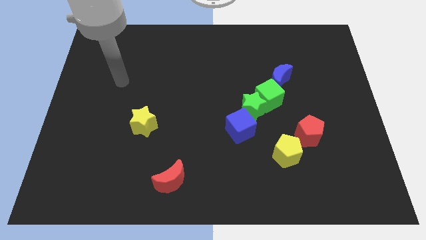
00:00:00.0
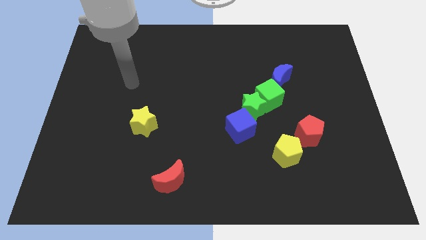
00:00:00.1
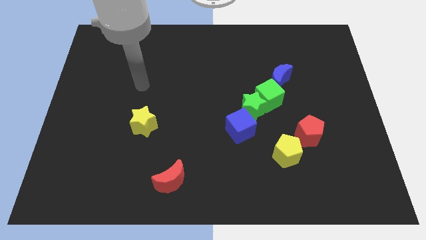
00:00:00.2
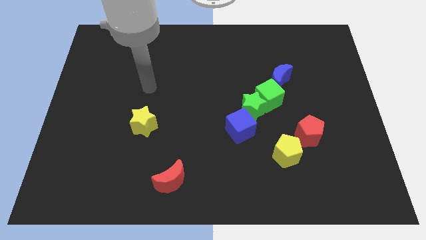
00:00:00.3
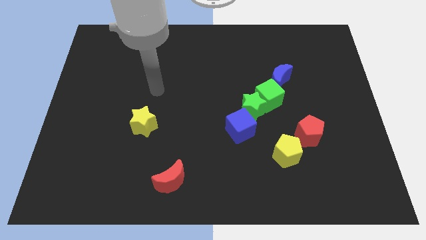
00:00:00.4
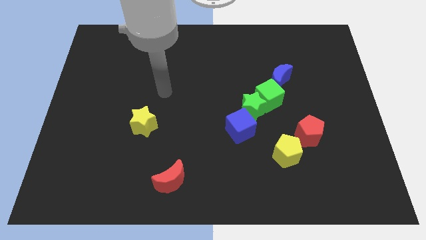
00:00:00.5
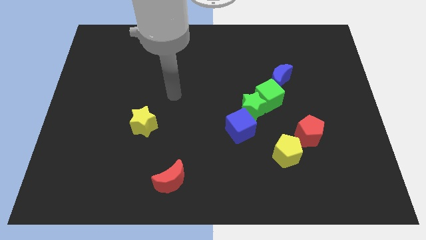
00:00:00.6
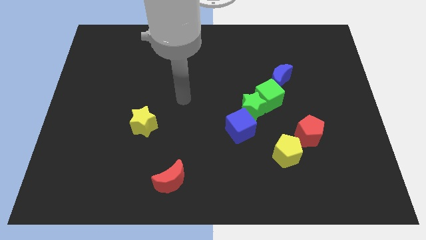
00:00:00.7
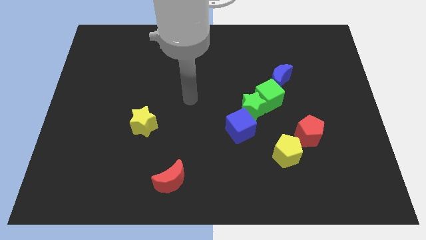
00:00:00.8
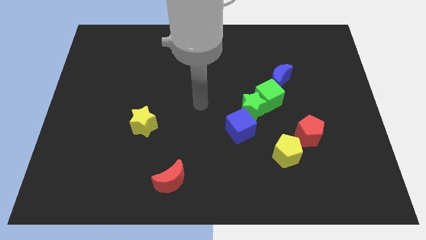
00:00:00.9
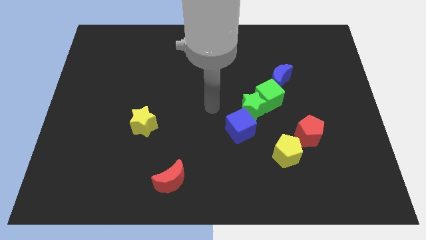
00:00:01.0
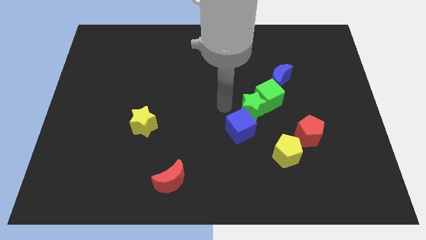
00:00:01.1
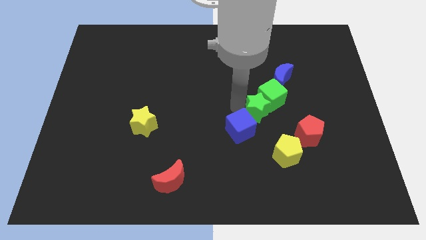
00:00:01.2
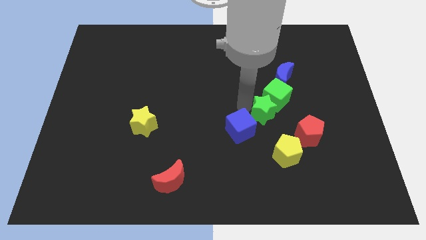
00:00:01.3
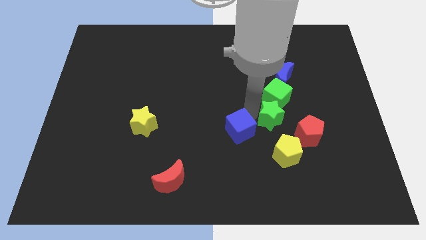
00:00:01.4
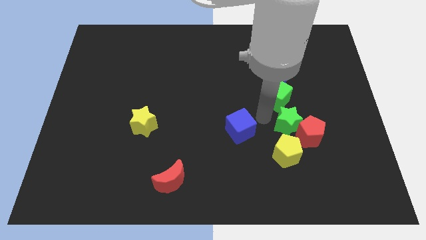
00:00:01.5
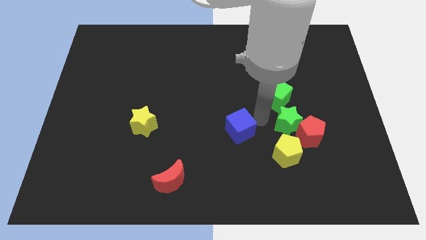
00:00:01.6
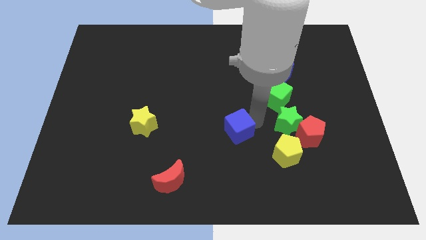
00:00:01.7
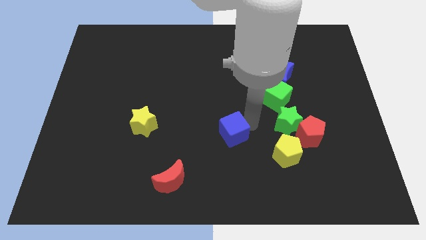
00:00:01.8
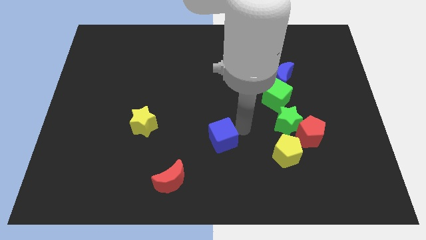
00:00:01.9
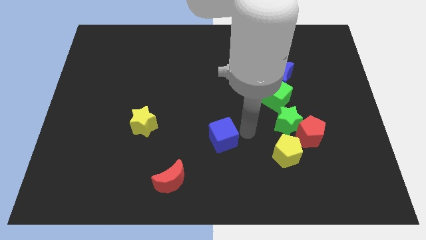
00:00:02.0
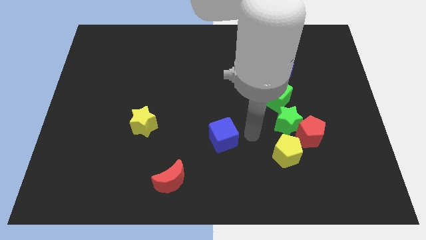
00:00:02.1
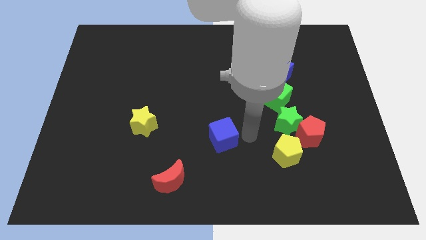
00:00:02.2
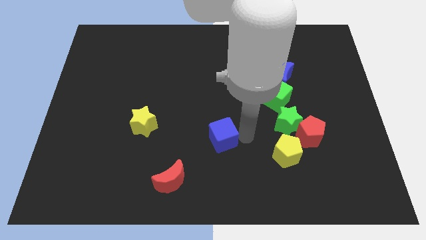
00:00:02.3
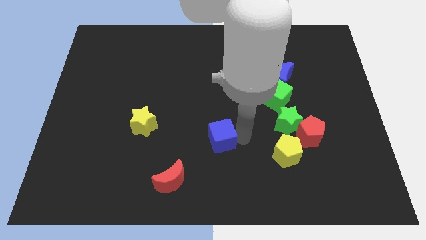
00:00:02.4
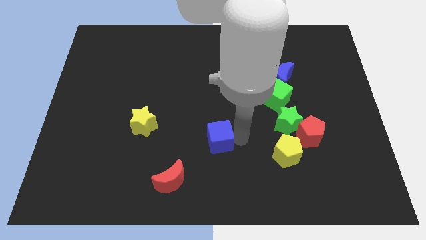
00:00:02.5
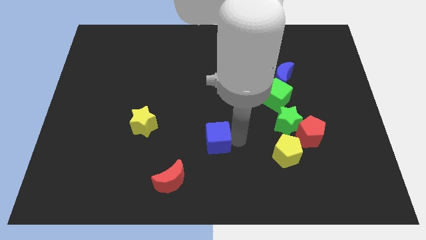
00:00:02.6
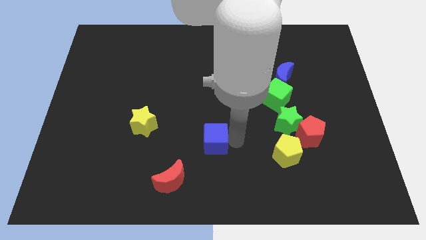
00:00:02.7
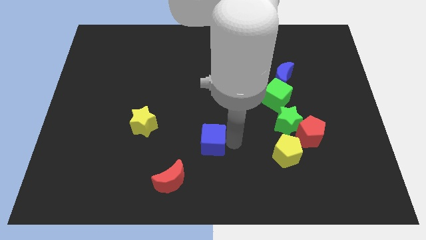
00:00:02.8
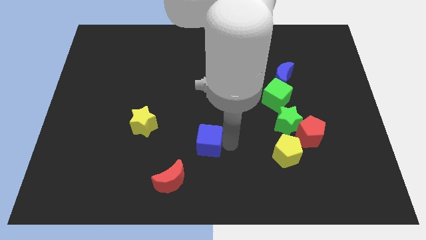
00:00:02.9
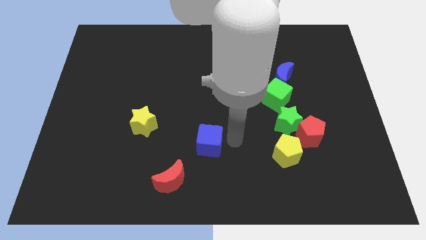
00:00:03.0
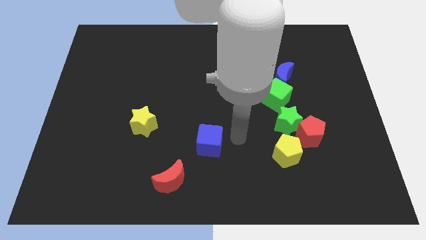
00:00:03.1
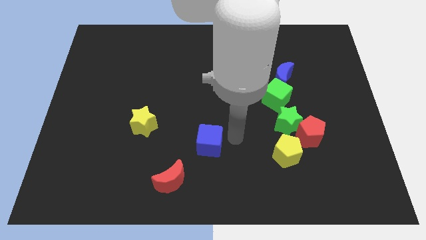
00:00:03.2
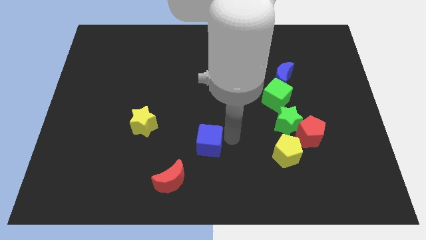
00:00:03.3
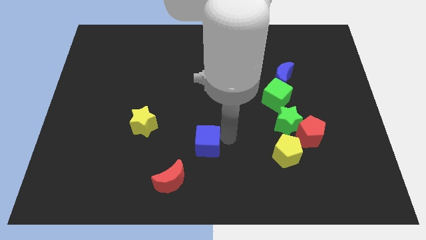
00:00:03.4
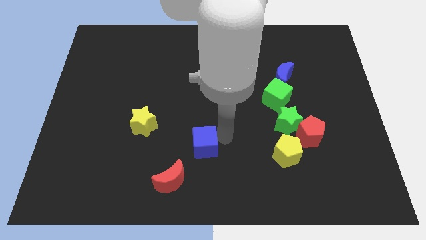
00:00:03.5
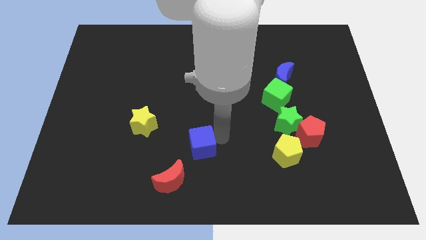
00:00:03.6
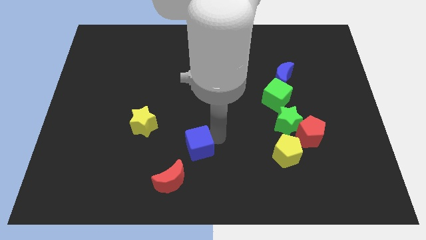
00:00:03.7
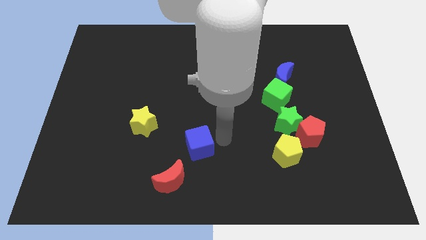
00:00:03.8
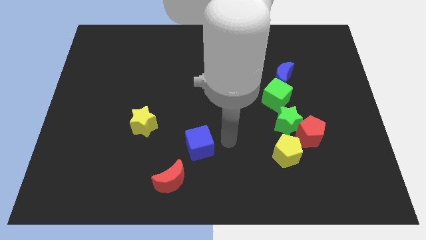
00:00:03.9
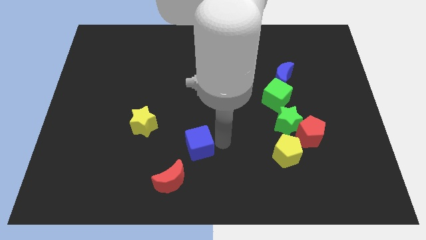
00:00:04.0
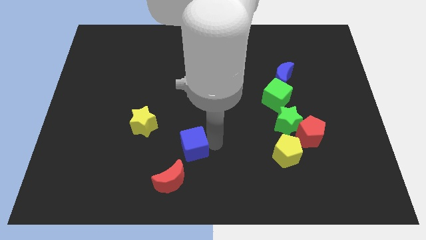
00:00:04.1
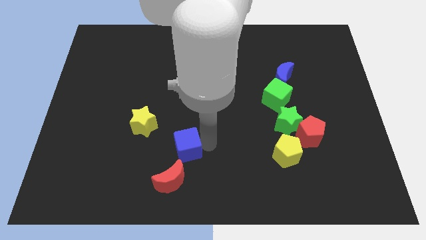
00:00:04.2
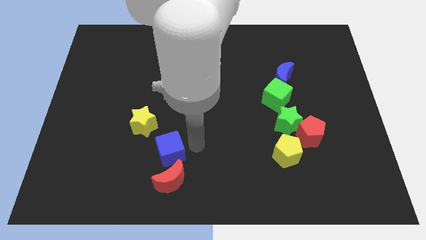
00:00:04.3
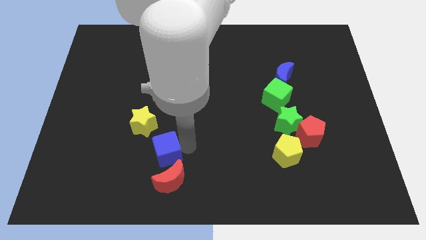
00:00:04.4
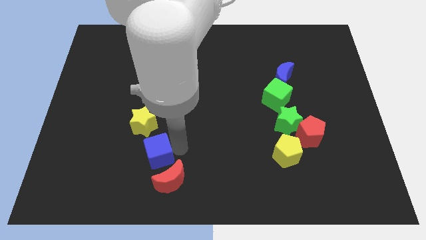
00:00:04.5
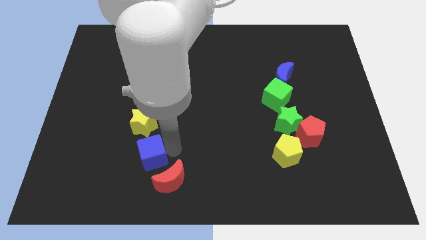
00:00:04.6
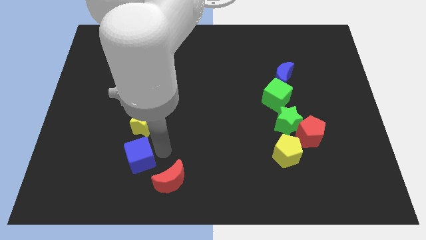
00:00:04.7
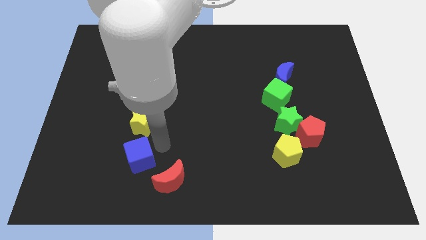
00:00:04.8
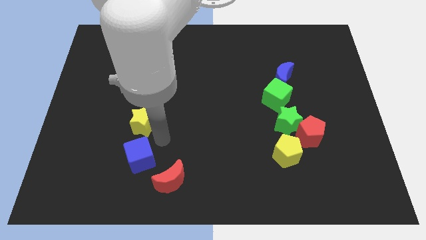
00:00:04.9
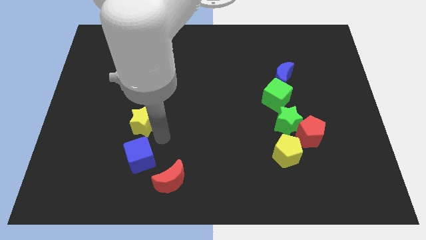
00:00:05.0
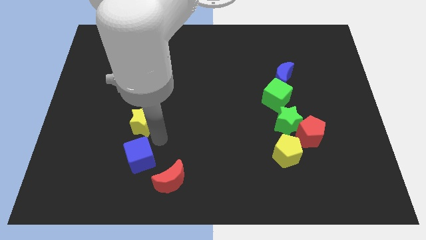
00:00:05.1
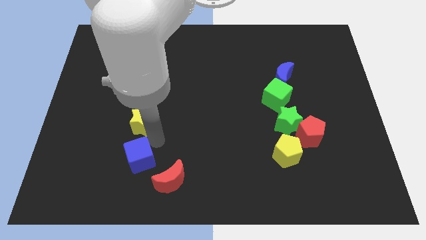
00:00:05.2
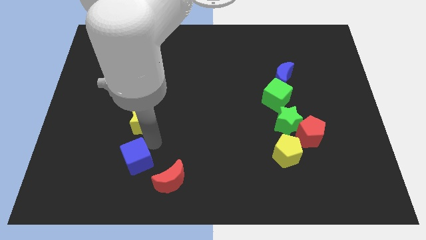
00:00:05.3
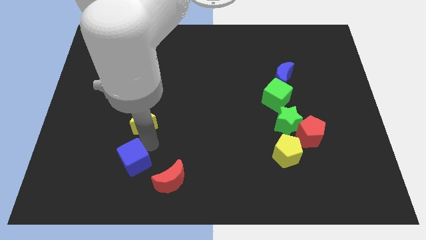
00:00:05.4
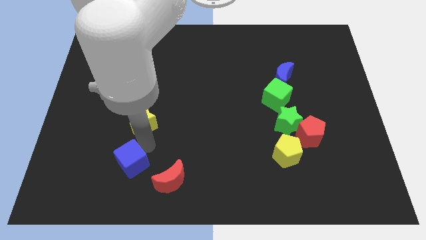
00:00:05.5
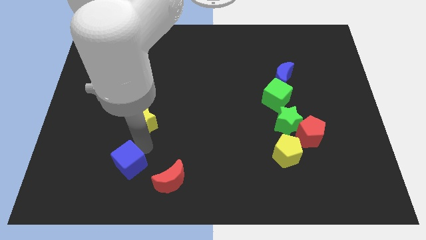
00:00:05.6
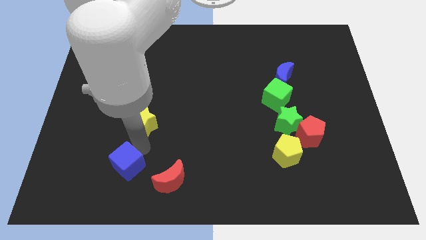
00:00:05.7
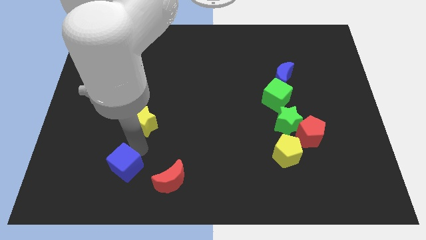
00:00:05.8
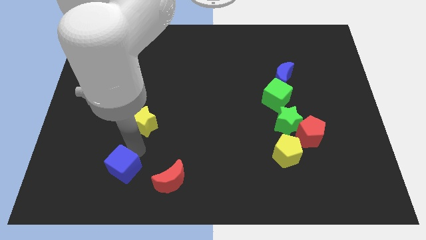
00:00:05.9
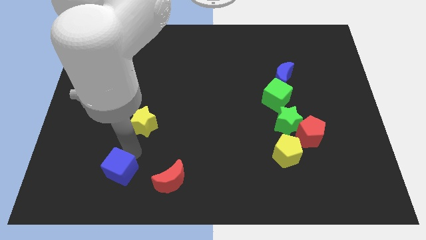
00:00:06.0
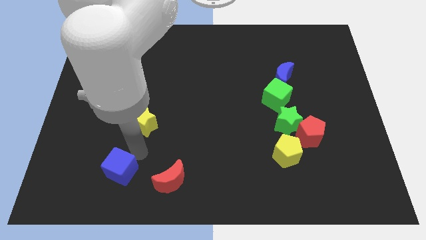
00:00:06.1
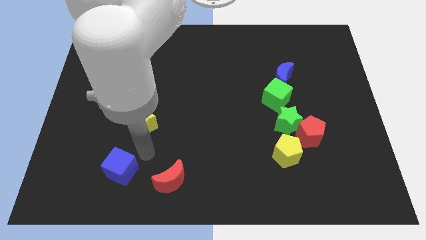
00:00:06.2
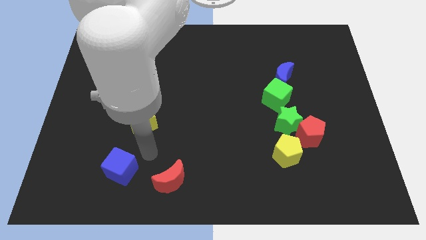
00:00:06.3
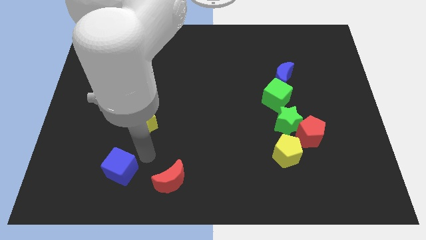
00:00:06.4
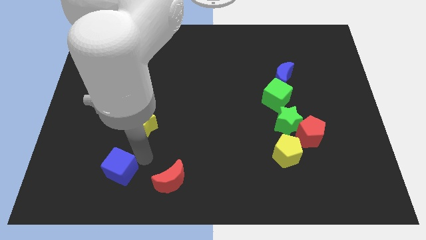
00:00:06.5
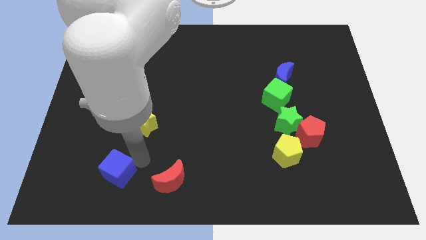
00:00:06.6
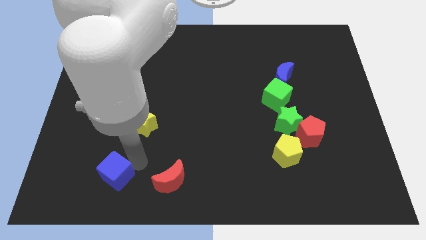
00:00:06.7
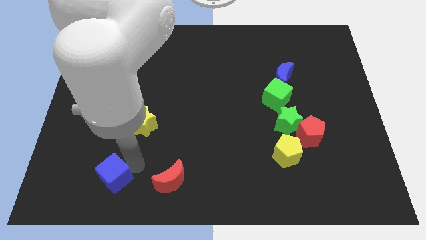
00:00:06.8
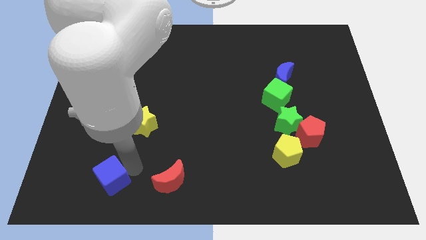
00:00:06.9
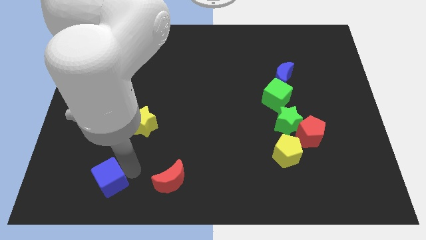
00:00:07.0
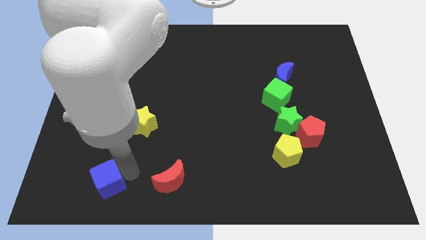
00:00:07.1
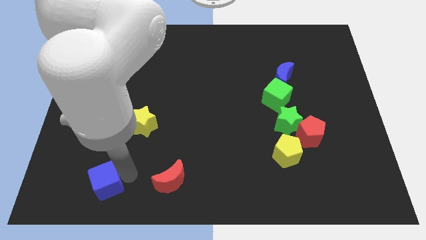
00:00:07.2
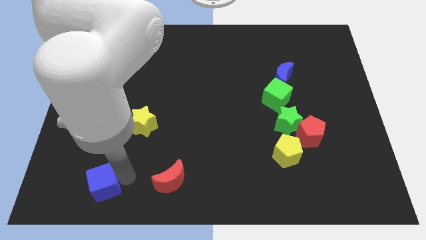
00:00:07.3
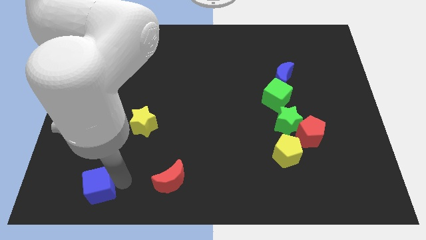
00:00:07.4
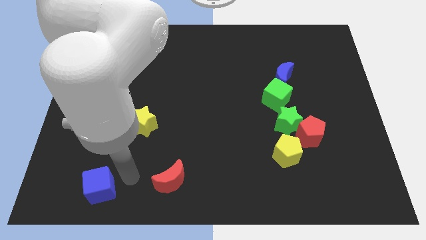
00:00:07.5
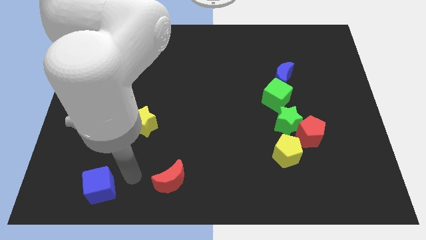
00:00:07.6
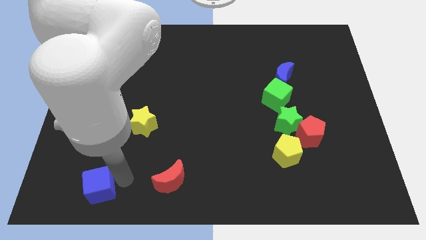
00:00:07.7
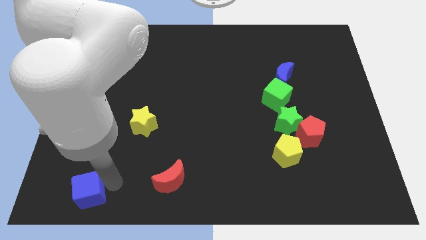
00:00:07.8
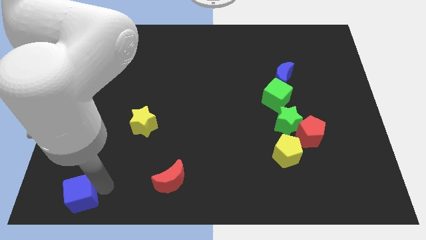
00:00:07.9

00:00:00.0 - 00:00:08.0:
put the blue cube to the bottom left of the board
